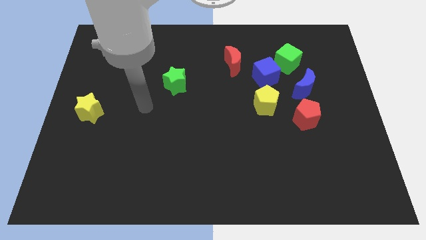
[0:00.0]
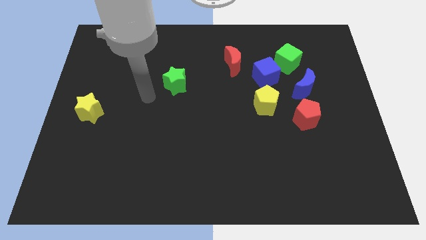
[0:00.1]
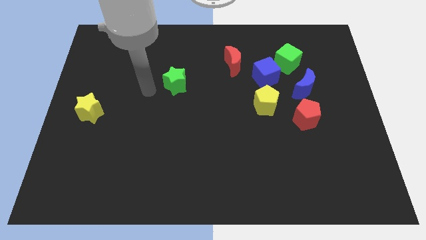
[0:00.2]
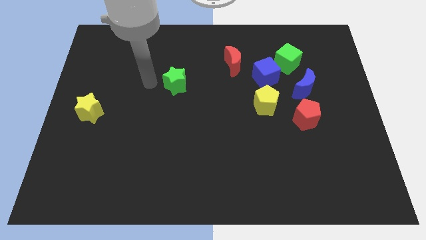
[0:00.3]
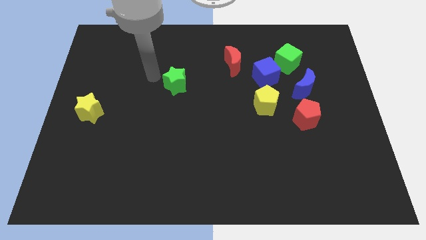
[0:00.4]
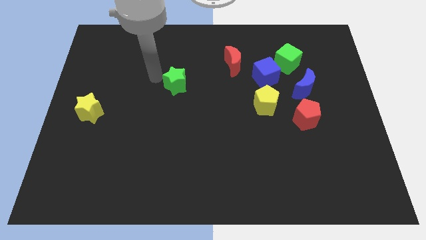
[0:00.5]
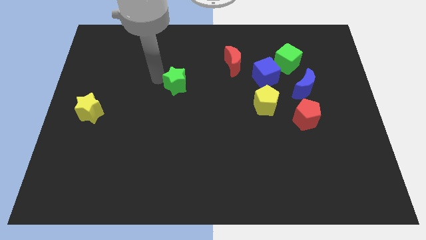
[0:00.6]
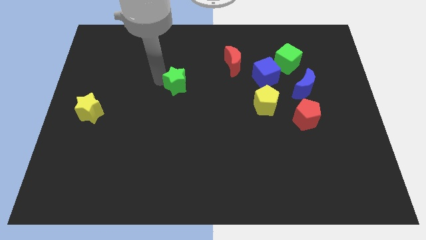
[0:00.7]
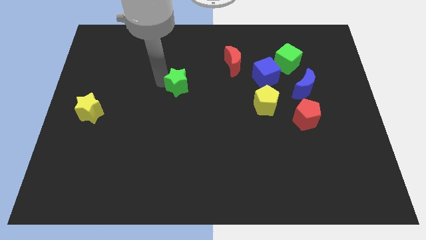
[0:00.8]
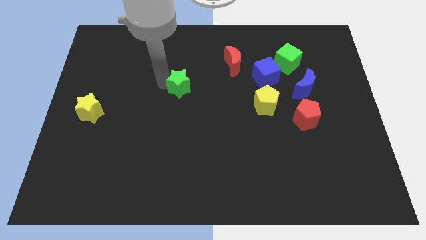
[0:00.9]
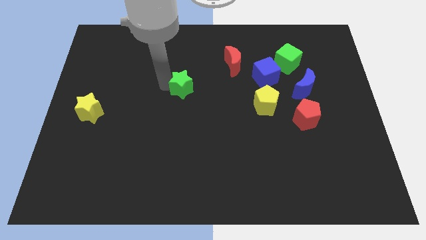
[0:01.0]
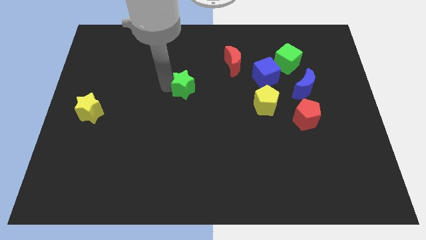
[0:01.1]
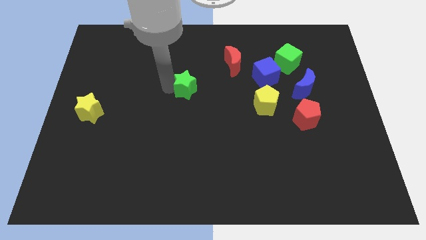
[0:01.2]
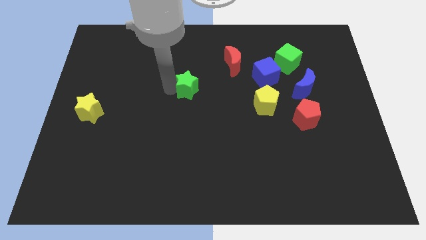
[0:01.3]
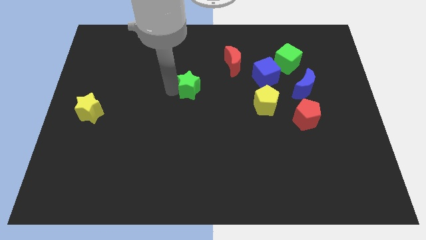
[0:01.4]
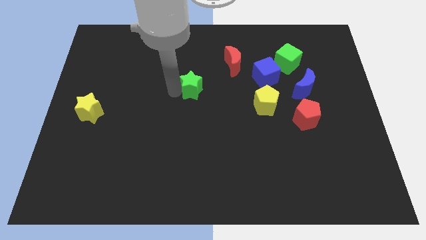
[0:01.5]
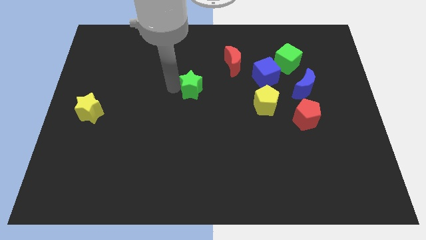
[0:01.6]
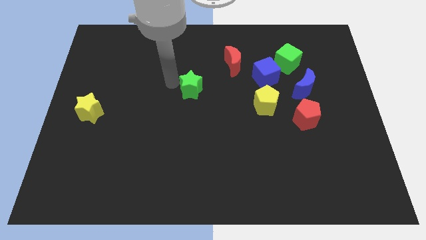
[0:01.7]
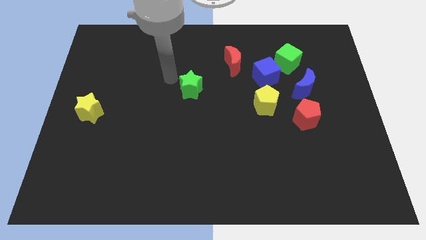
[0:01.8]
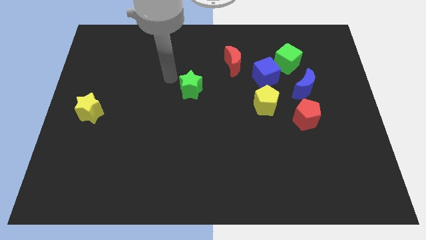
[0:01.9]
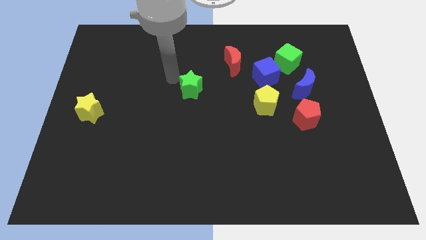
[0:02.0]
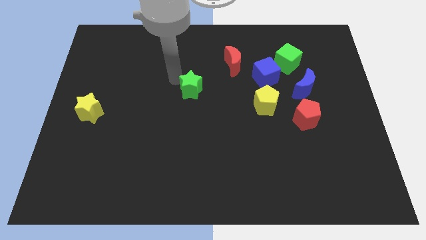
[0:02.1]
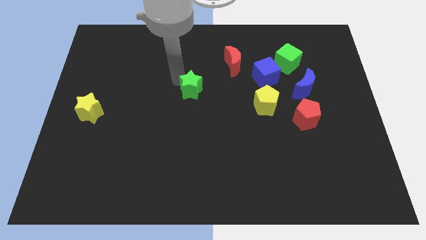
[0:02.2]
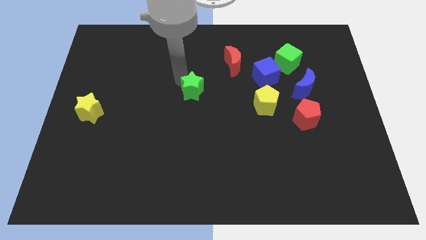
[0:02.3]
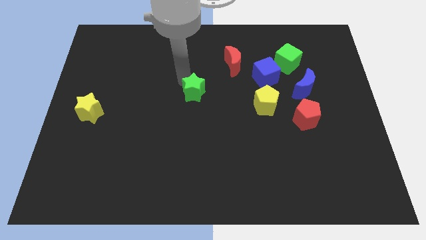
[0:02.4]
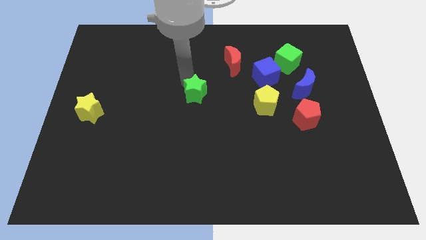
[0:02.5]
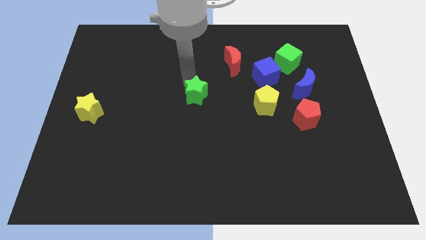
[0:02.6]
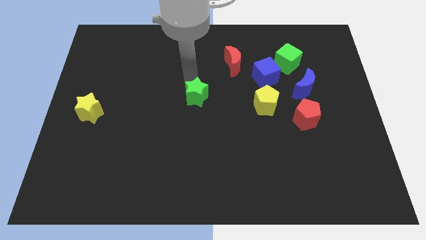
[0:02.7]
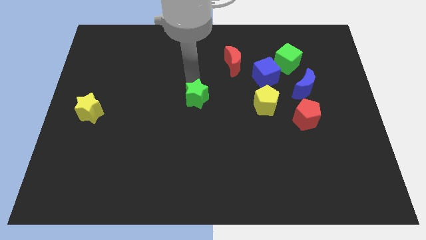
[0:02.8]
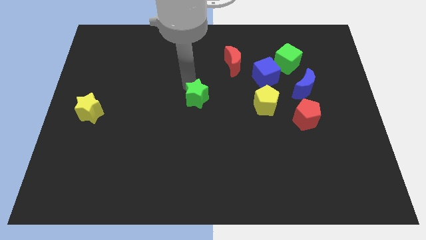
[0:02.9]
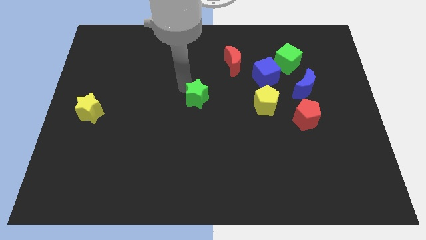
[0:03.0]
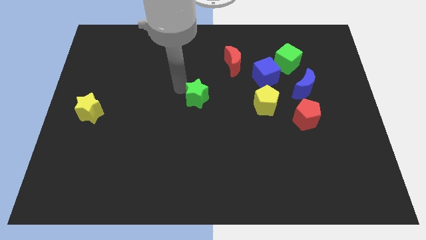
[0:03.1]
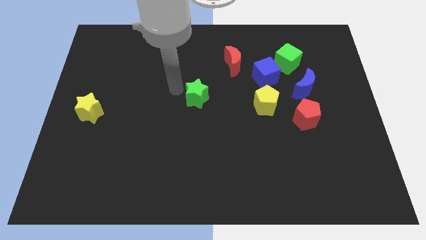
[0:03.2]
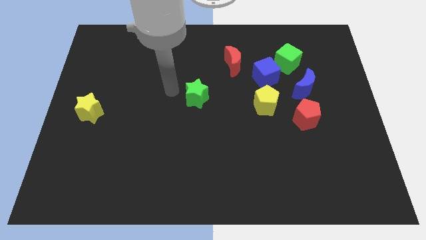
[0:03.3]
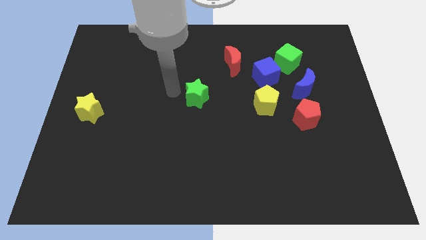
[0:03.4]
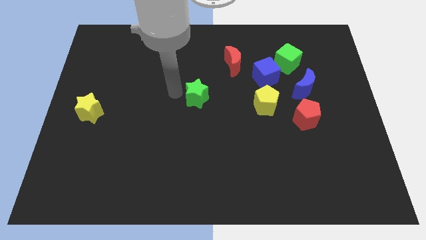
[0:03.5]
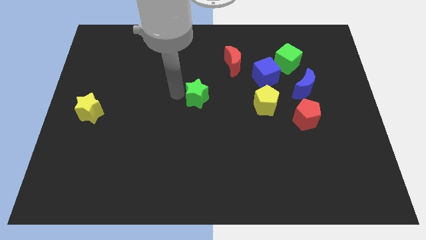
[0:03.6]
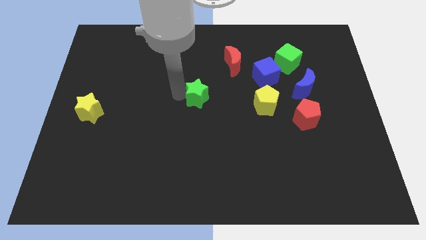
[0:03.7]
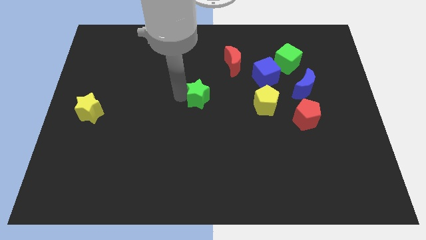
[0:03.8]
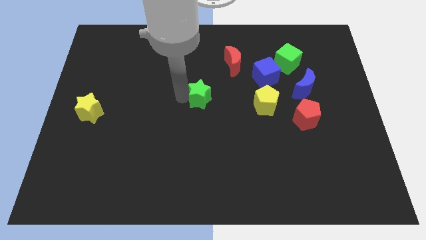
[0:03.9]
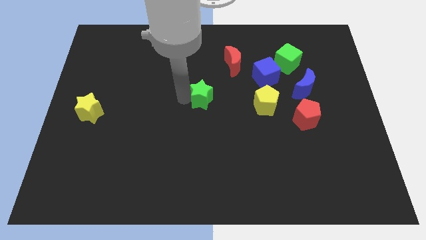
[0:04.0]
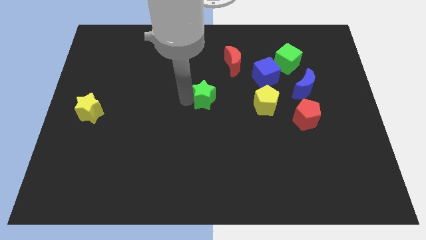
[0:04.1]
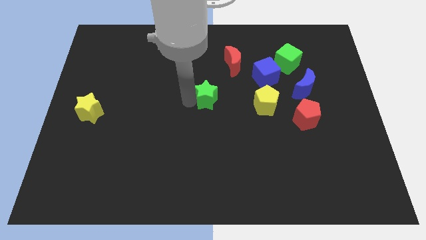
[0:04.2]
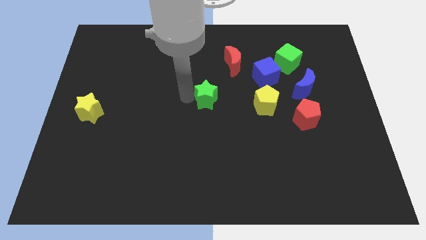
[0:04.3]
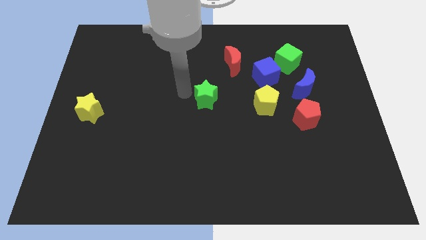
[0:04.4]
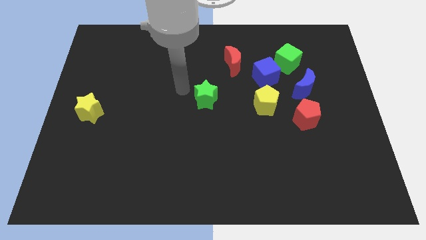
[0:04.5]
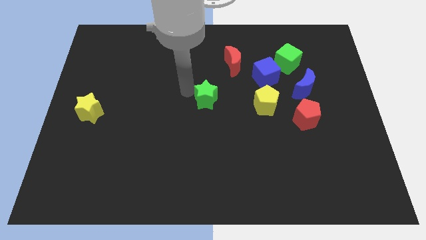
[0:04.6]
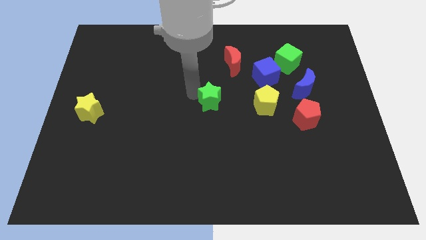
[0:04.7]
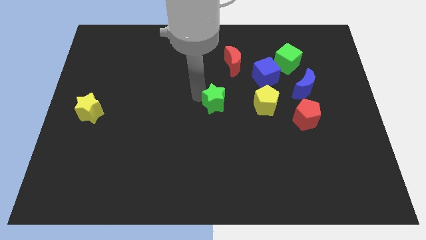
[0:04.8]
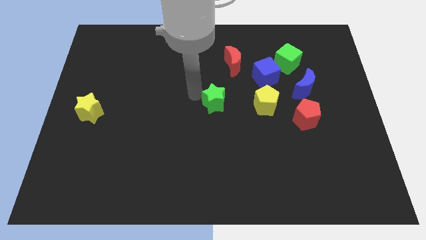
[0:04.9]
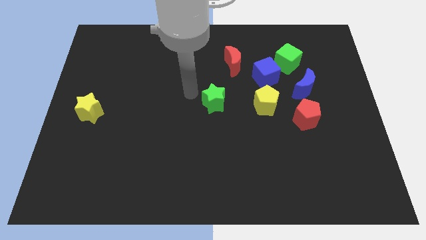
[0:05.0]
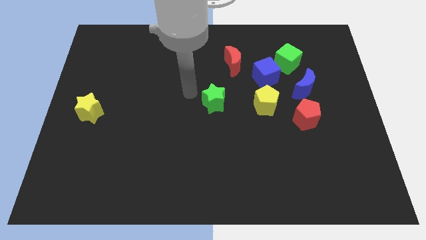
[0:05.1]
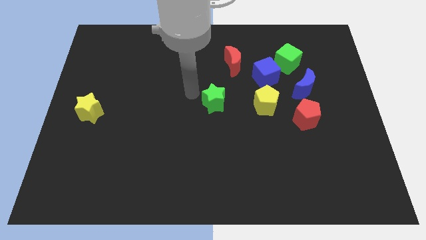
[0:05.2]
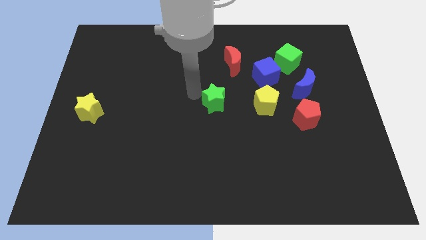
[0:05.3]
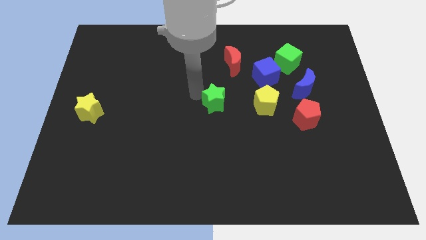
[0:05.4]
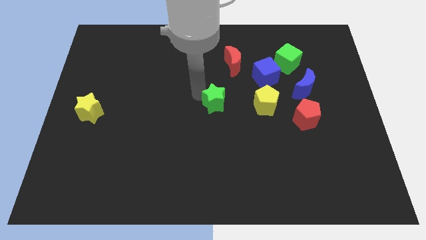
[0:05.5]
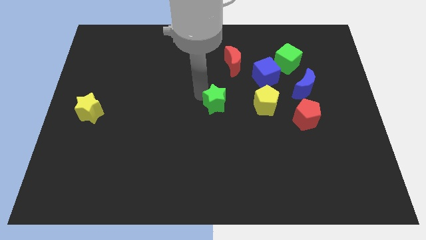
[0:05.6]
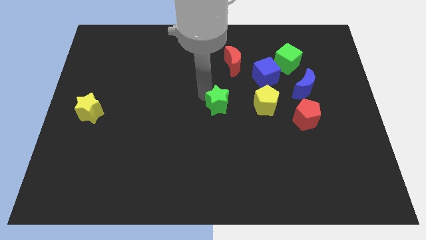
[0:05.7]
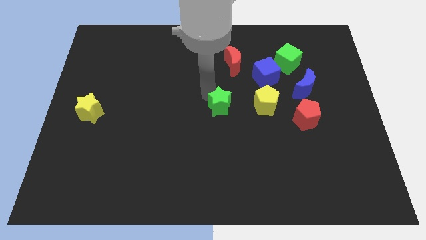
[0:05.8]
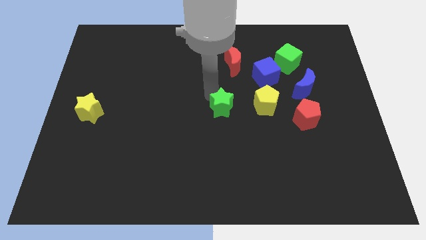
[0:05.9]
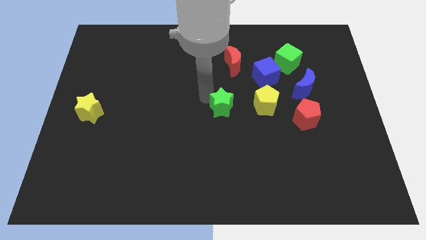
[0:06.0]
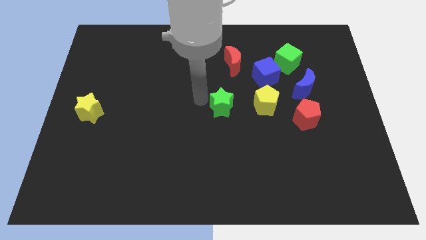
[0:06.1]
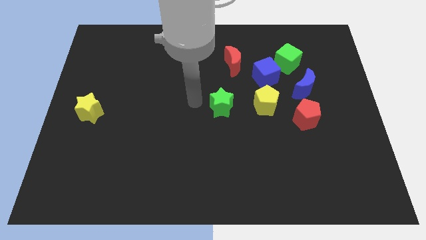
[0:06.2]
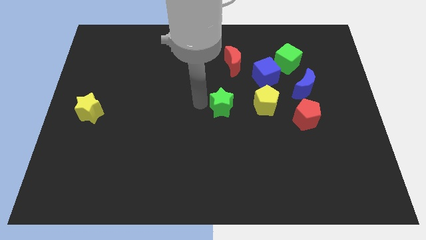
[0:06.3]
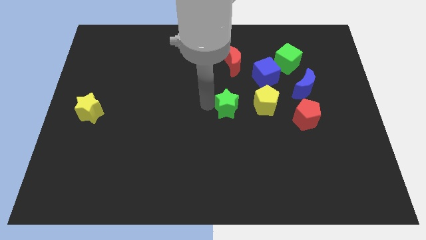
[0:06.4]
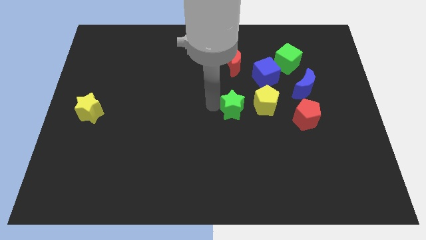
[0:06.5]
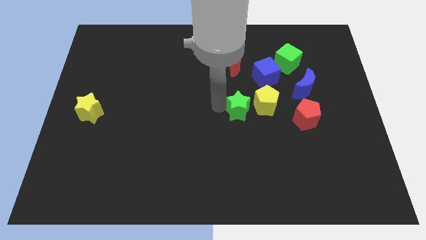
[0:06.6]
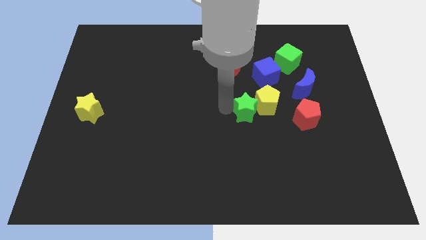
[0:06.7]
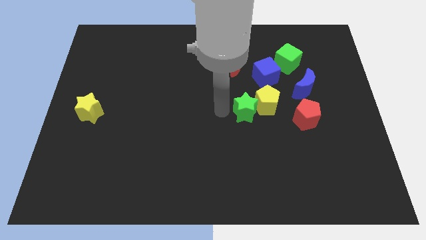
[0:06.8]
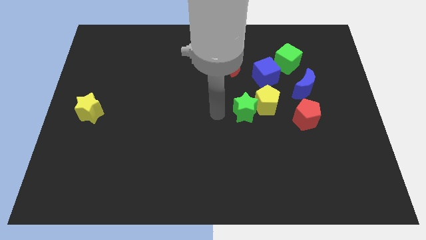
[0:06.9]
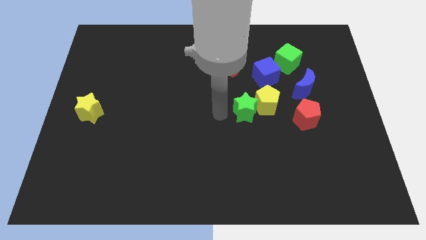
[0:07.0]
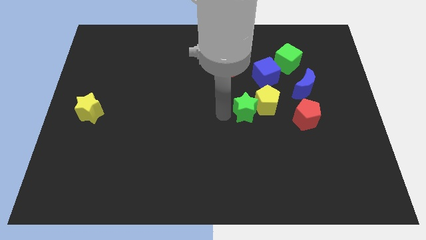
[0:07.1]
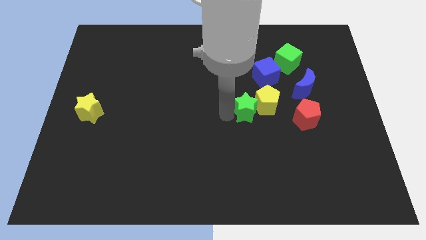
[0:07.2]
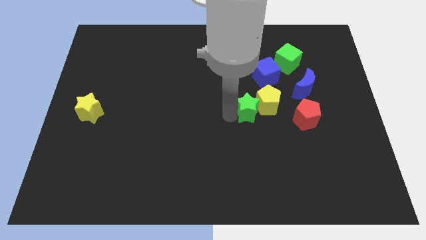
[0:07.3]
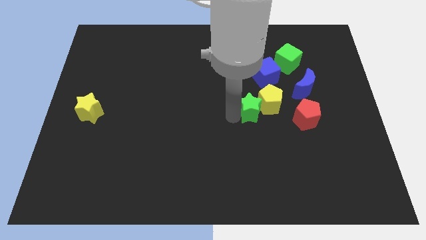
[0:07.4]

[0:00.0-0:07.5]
put the green star to the bottom side of the blue cube
